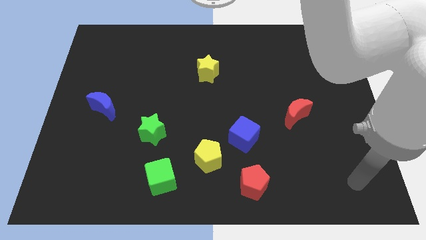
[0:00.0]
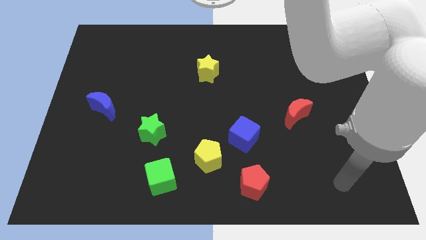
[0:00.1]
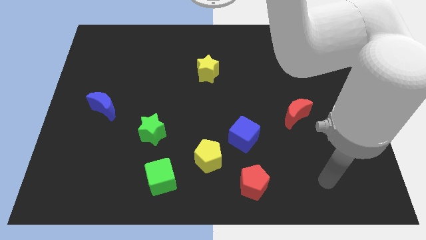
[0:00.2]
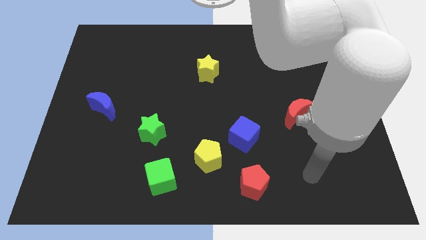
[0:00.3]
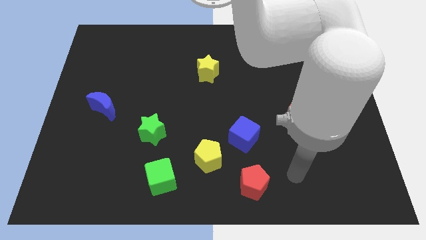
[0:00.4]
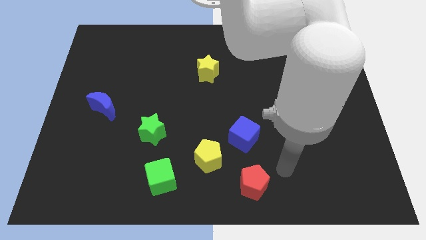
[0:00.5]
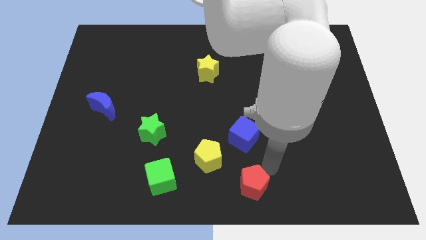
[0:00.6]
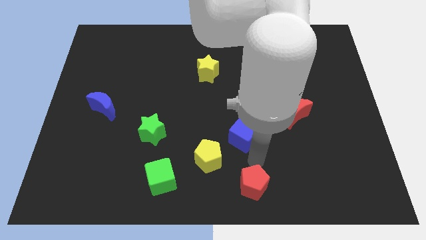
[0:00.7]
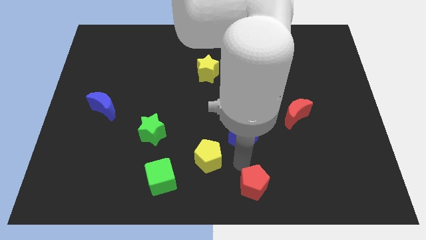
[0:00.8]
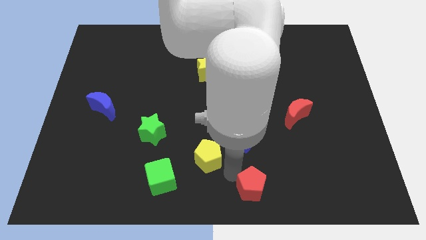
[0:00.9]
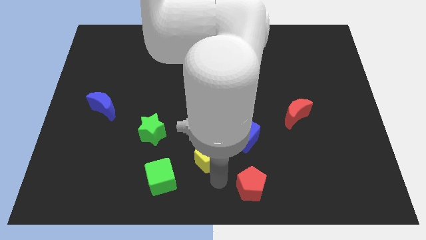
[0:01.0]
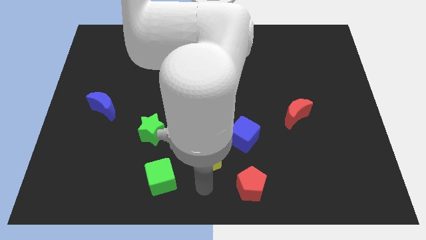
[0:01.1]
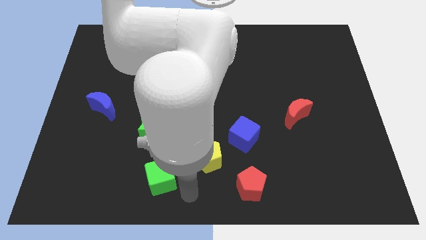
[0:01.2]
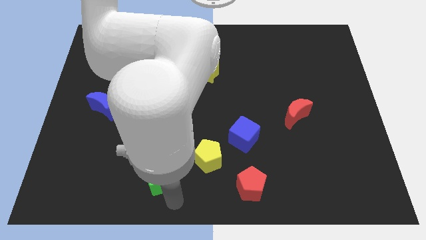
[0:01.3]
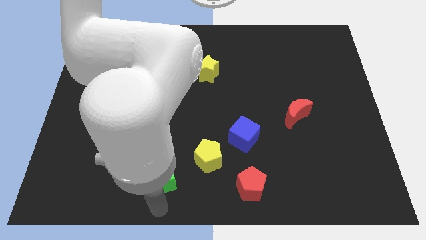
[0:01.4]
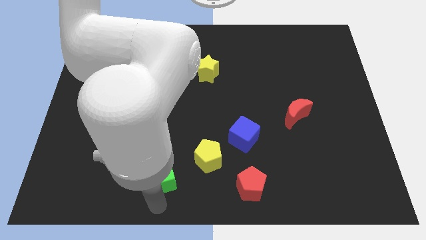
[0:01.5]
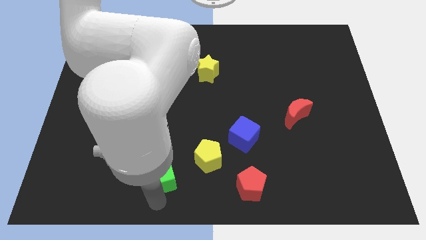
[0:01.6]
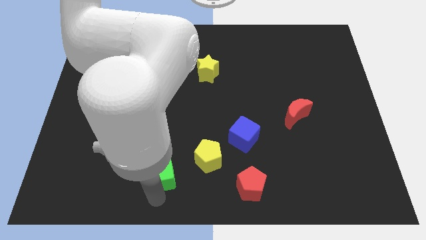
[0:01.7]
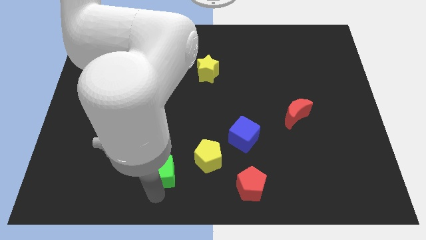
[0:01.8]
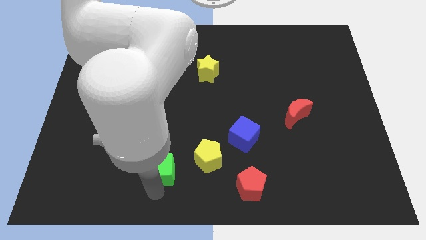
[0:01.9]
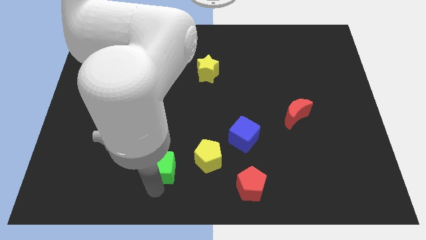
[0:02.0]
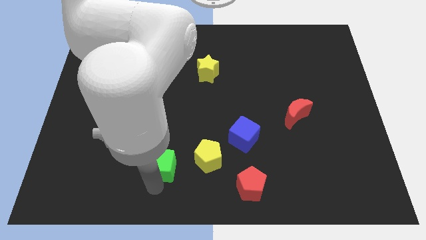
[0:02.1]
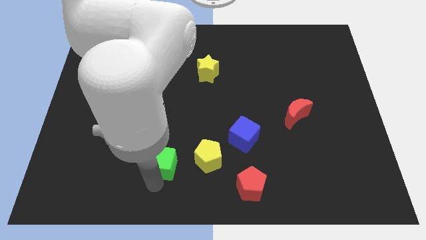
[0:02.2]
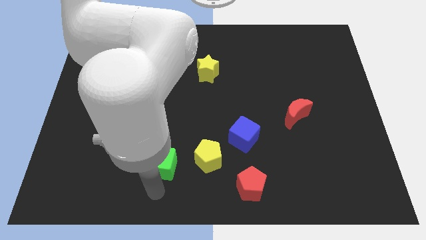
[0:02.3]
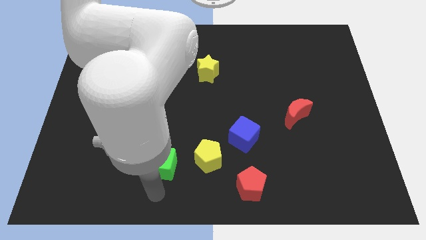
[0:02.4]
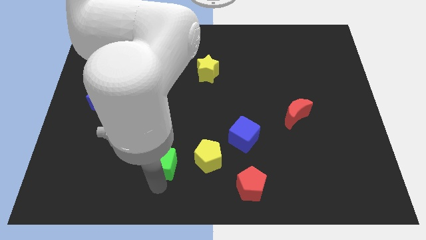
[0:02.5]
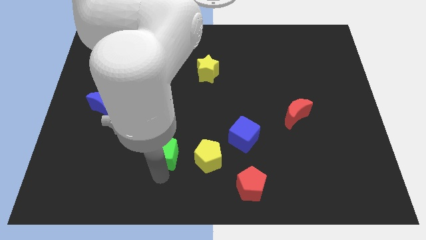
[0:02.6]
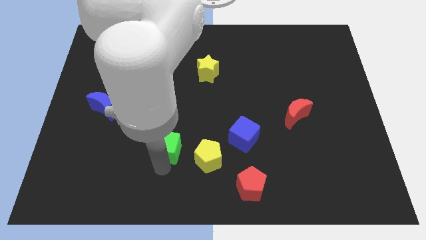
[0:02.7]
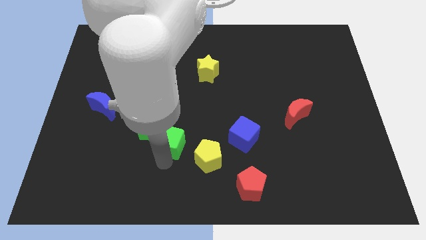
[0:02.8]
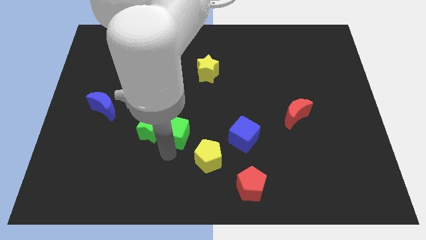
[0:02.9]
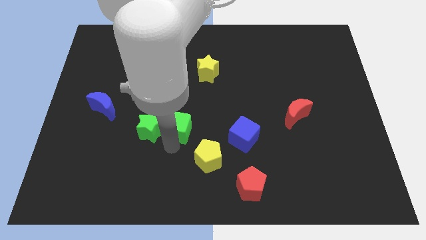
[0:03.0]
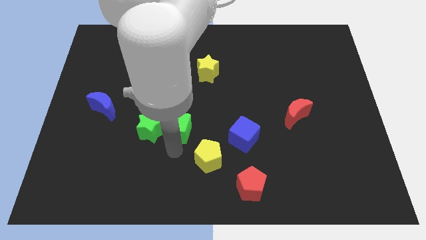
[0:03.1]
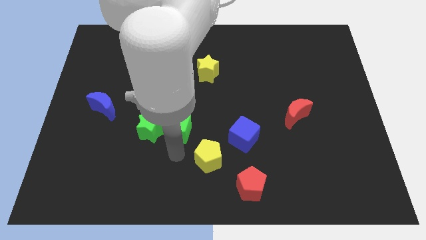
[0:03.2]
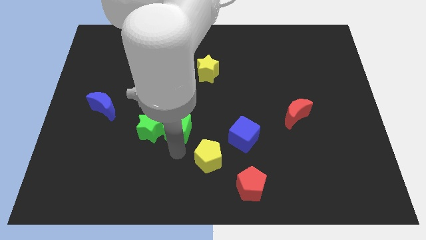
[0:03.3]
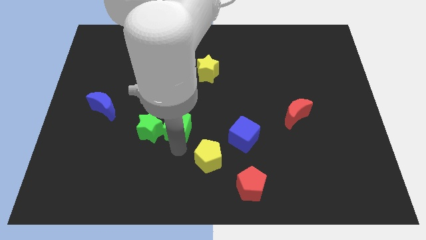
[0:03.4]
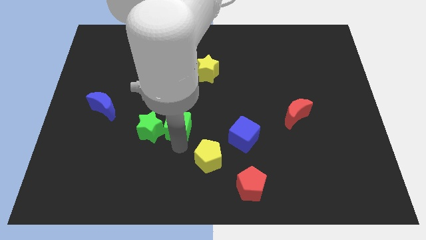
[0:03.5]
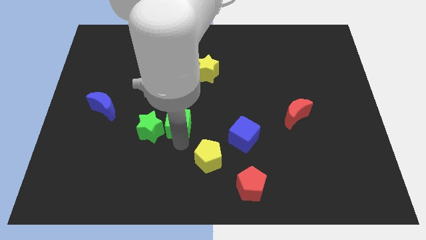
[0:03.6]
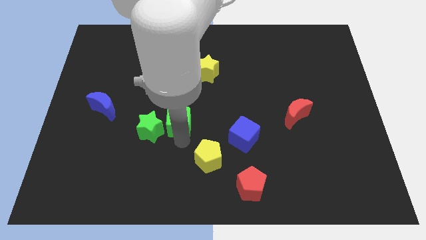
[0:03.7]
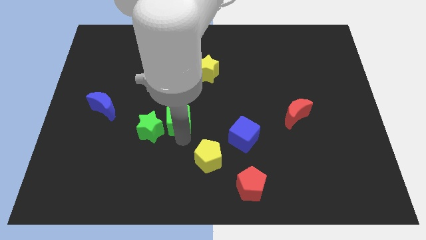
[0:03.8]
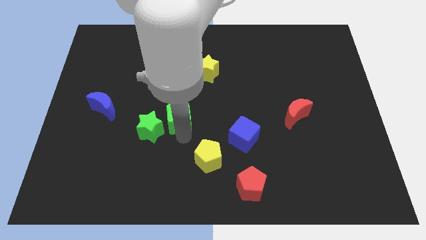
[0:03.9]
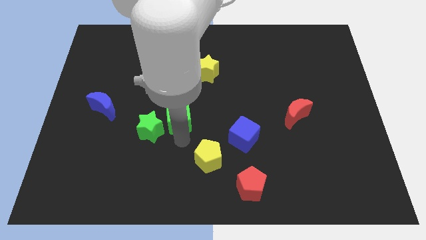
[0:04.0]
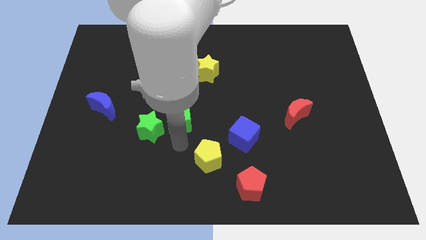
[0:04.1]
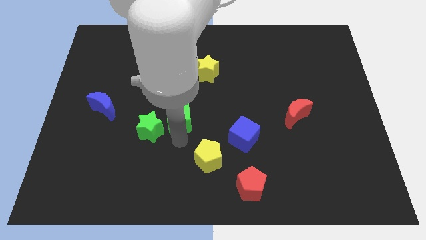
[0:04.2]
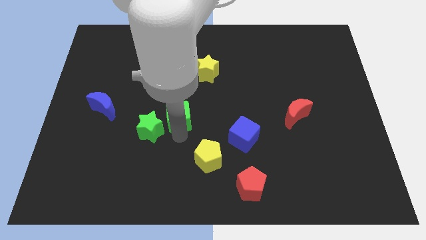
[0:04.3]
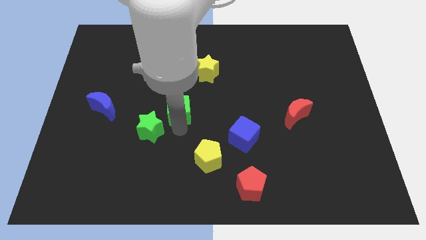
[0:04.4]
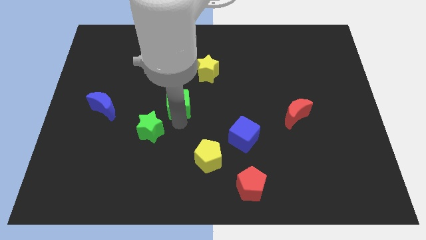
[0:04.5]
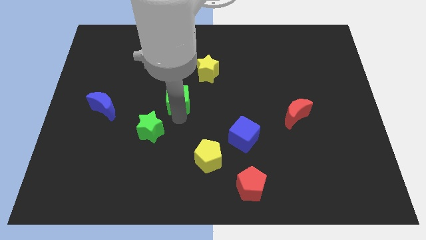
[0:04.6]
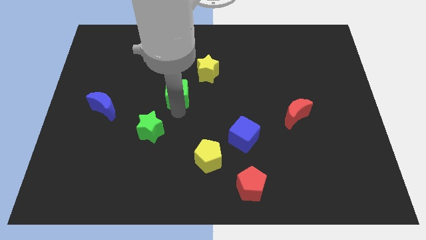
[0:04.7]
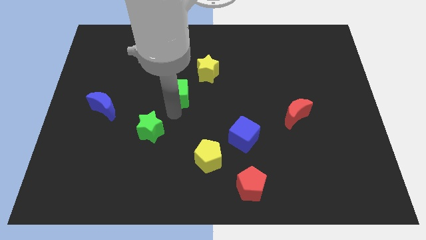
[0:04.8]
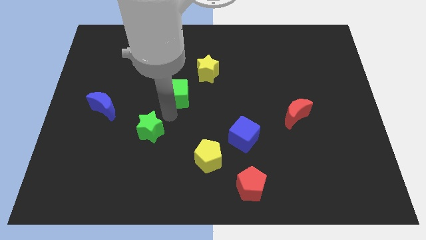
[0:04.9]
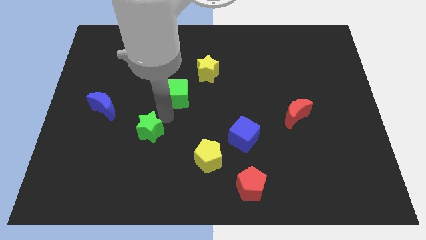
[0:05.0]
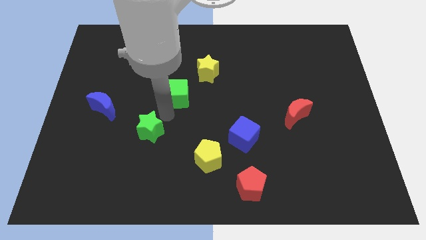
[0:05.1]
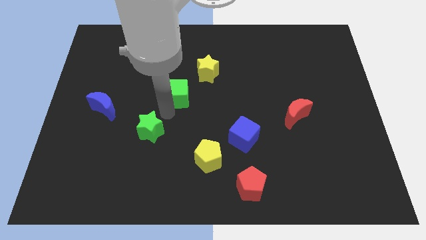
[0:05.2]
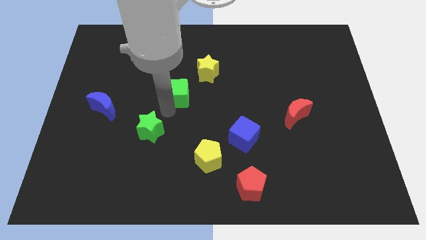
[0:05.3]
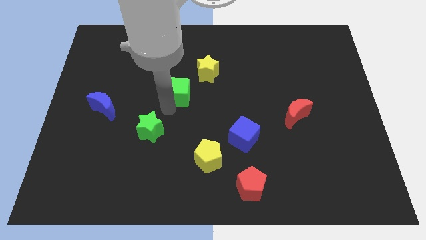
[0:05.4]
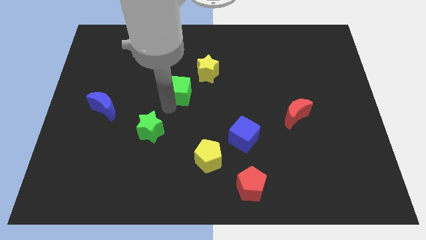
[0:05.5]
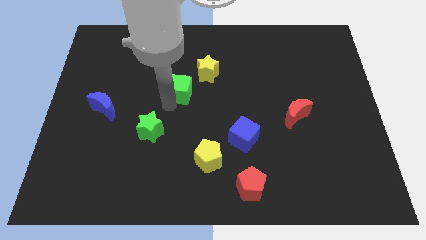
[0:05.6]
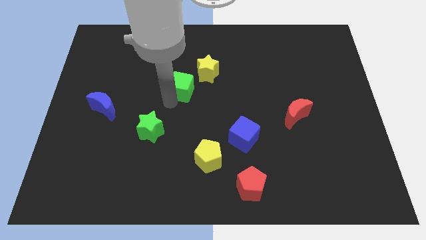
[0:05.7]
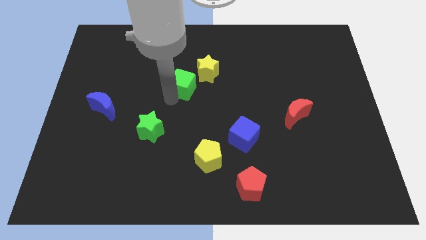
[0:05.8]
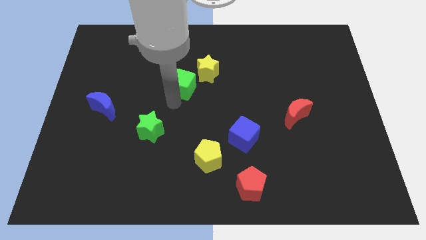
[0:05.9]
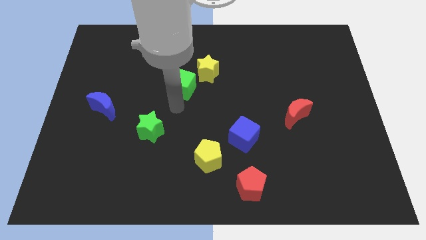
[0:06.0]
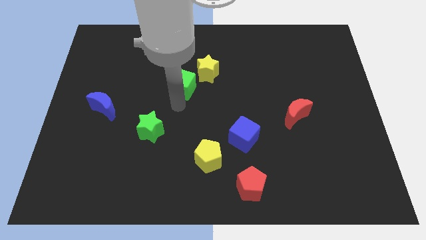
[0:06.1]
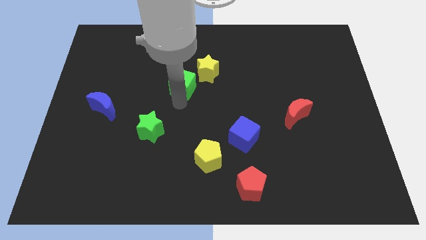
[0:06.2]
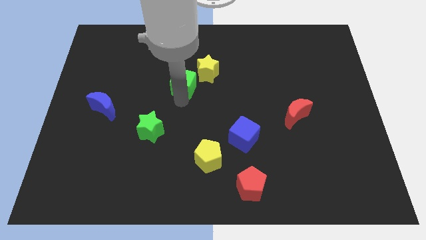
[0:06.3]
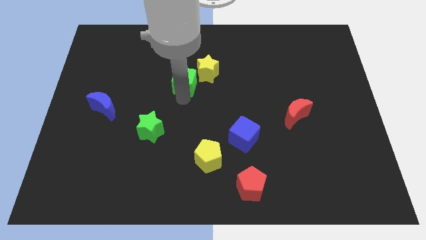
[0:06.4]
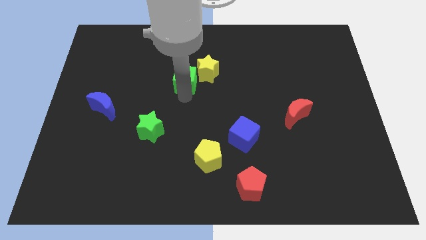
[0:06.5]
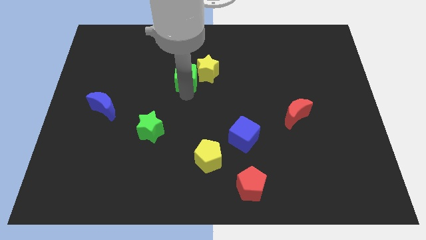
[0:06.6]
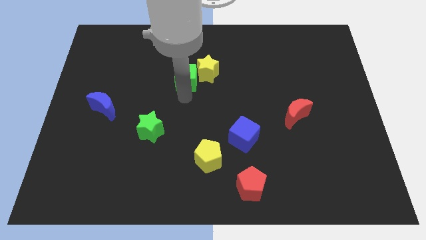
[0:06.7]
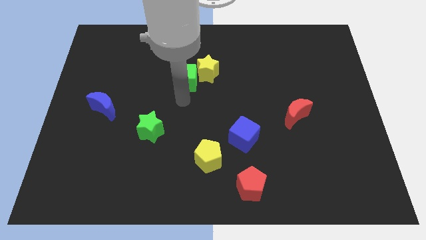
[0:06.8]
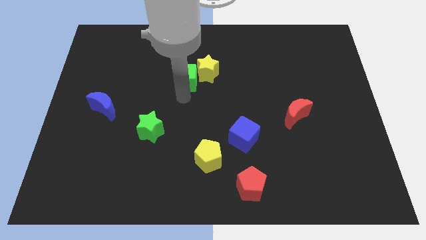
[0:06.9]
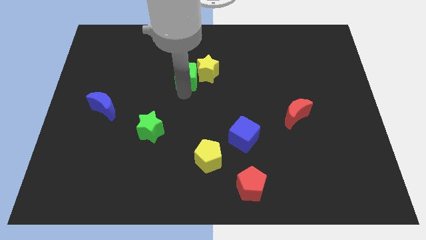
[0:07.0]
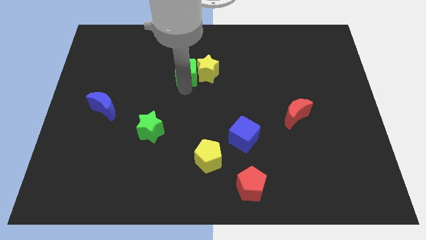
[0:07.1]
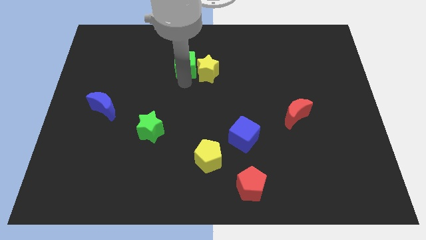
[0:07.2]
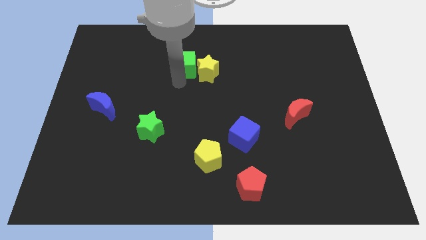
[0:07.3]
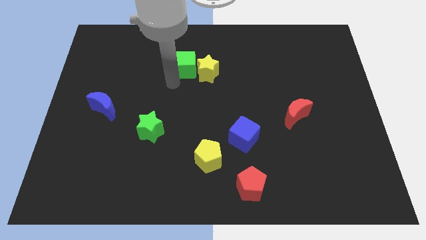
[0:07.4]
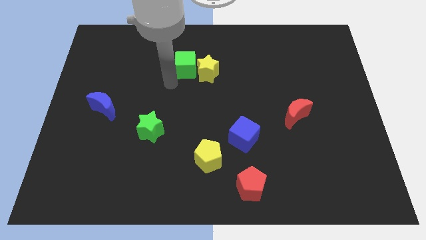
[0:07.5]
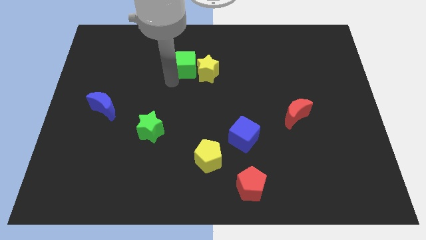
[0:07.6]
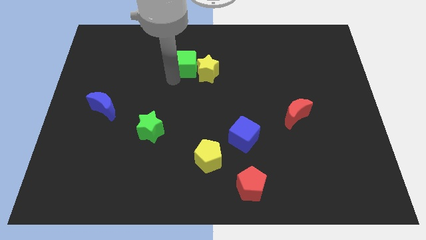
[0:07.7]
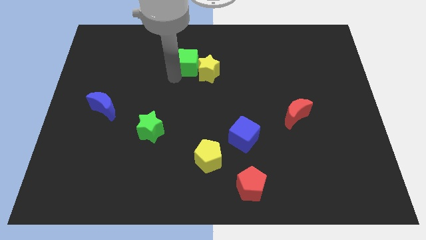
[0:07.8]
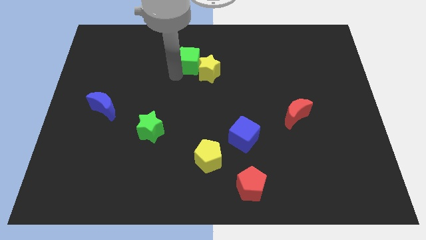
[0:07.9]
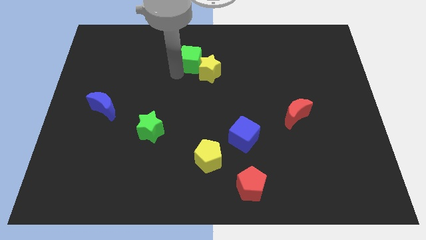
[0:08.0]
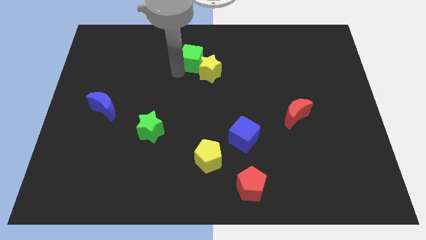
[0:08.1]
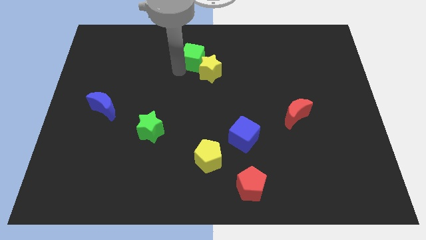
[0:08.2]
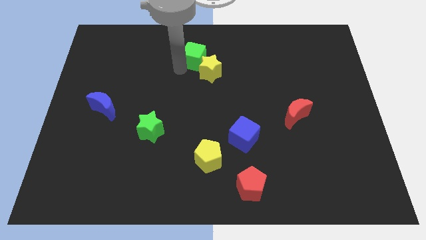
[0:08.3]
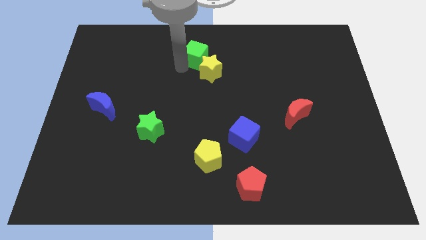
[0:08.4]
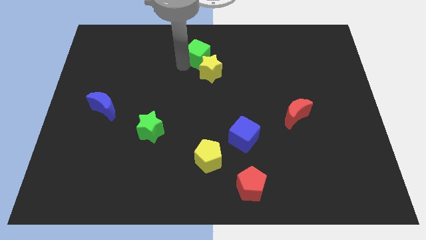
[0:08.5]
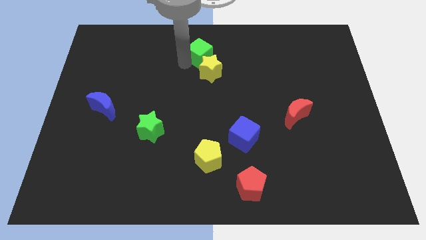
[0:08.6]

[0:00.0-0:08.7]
put the green cube to the top
